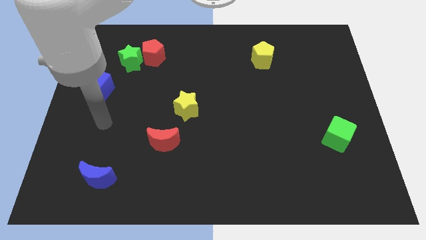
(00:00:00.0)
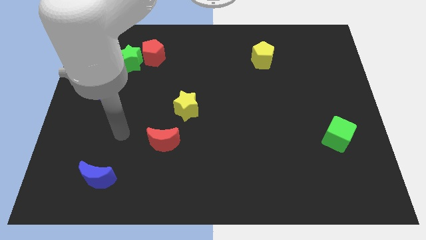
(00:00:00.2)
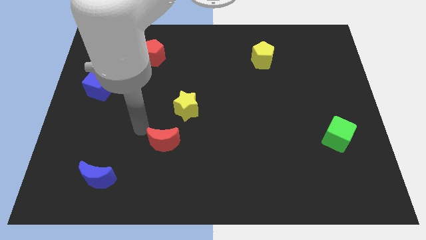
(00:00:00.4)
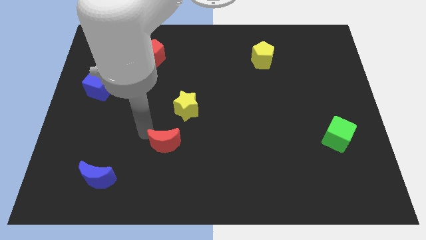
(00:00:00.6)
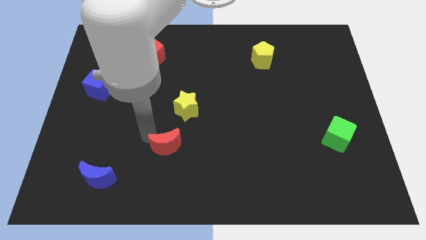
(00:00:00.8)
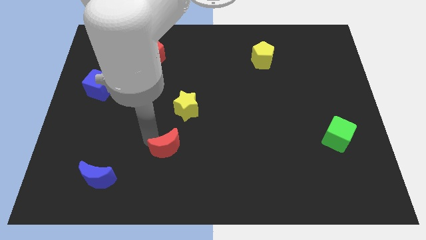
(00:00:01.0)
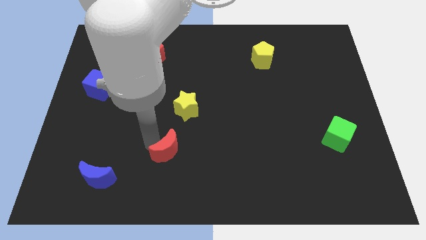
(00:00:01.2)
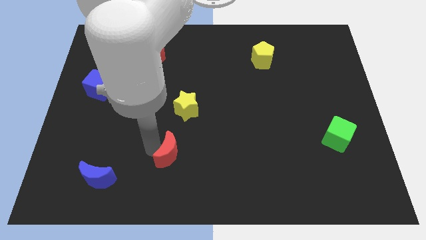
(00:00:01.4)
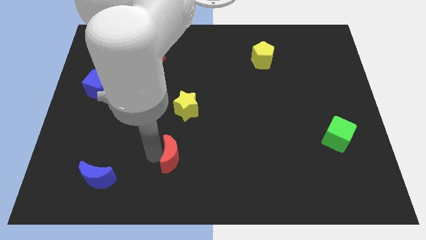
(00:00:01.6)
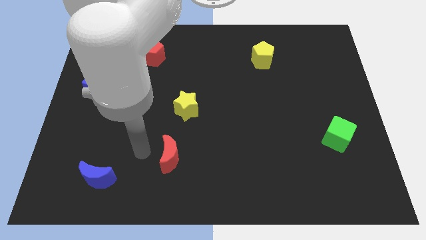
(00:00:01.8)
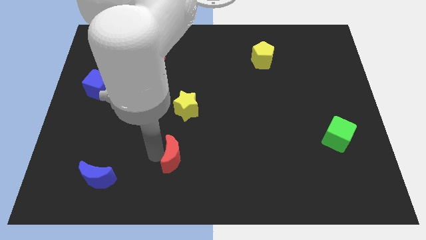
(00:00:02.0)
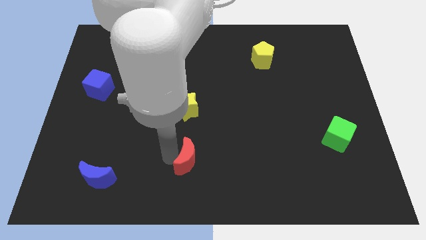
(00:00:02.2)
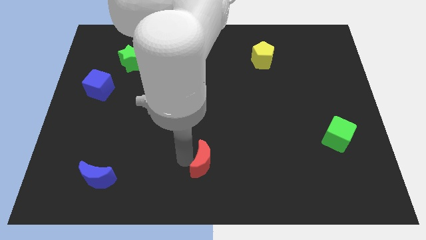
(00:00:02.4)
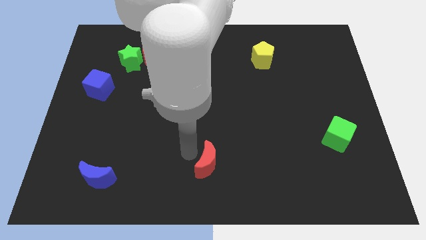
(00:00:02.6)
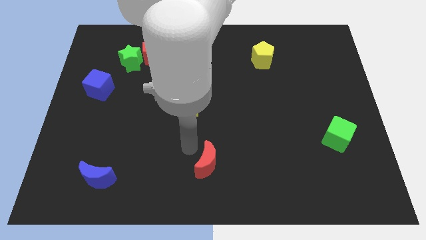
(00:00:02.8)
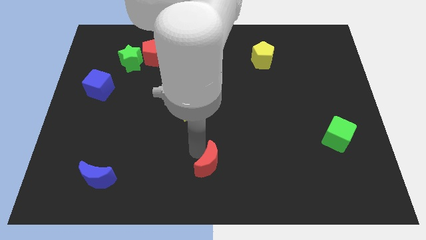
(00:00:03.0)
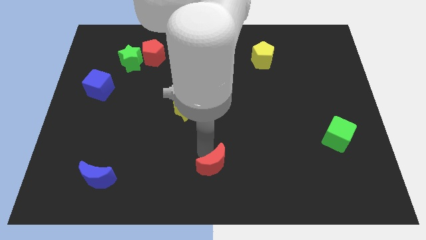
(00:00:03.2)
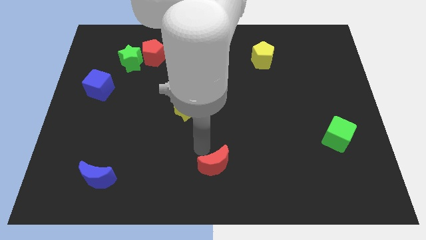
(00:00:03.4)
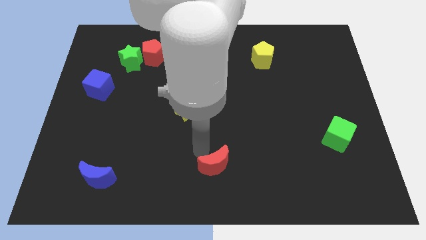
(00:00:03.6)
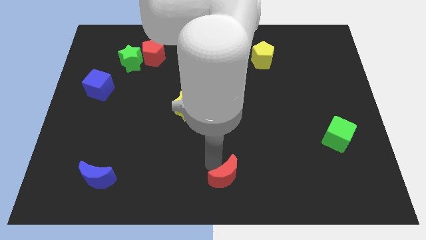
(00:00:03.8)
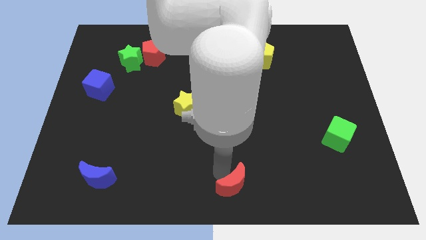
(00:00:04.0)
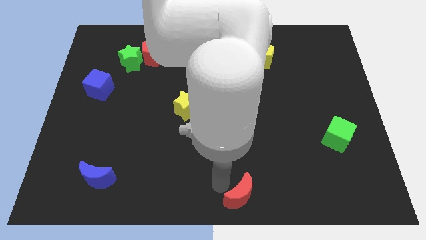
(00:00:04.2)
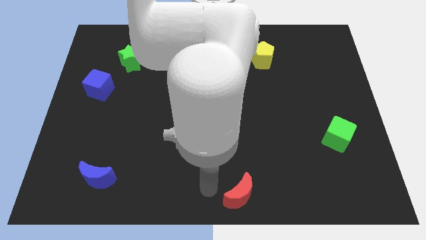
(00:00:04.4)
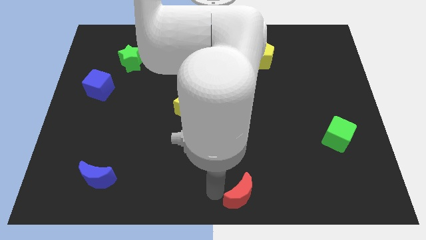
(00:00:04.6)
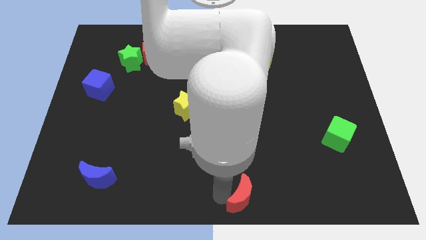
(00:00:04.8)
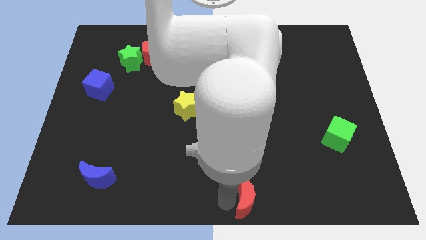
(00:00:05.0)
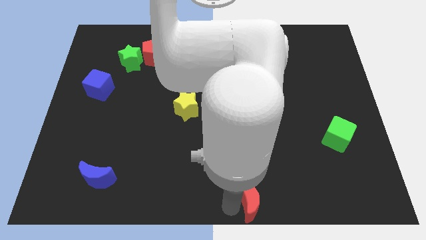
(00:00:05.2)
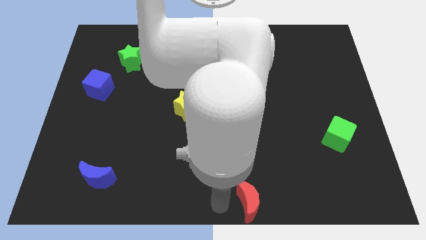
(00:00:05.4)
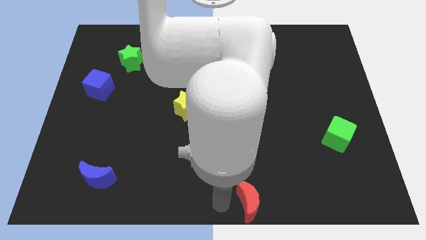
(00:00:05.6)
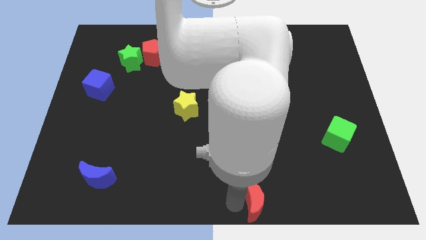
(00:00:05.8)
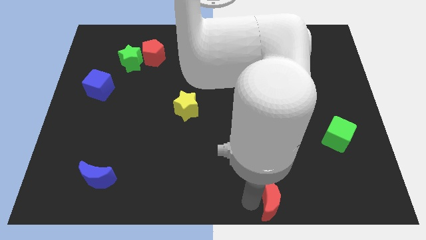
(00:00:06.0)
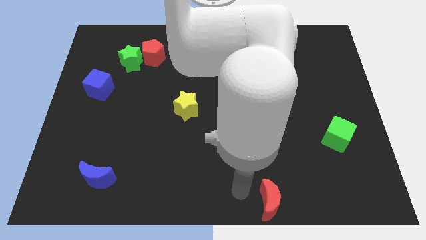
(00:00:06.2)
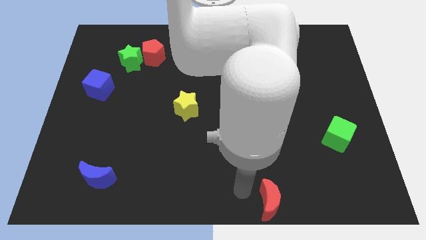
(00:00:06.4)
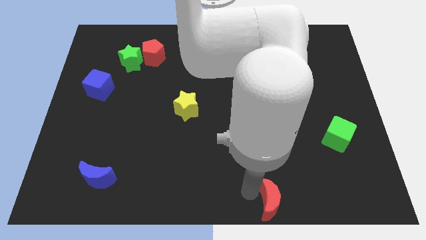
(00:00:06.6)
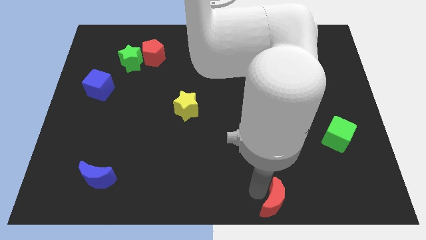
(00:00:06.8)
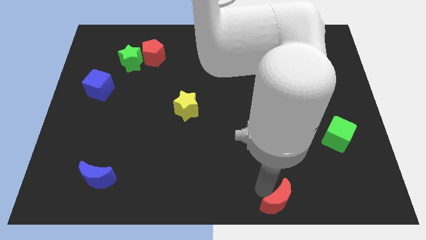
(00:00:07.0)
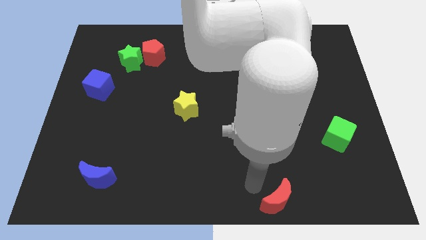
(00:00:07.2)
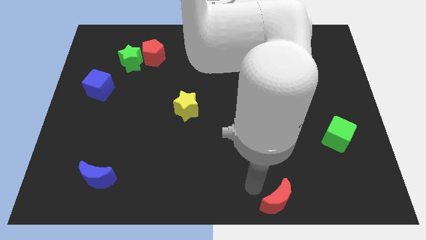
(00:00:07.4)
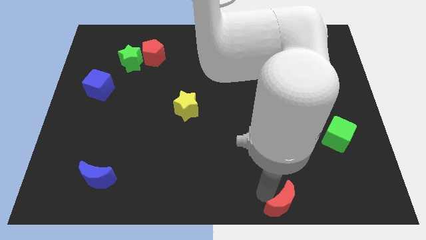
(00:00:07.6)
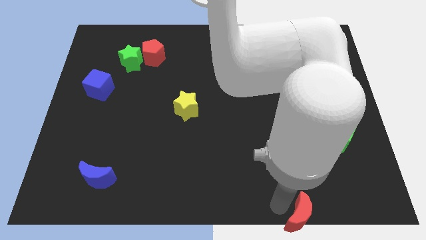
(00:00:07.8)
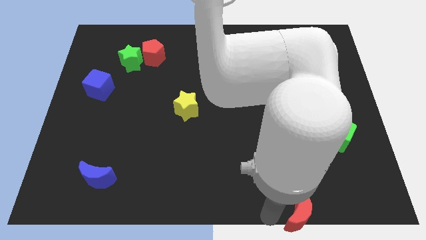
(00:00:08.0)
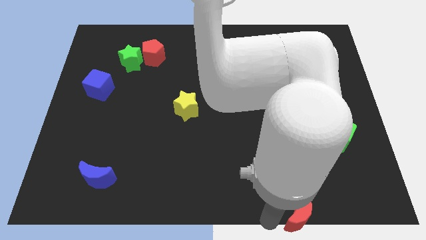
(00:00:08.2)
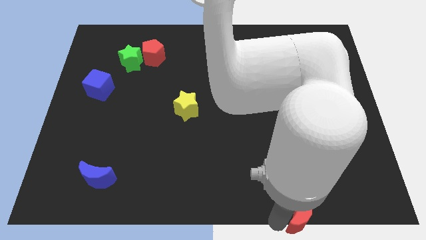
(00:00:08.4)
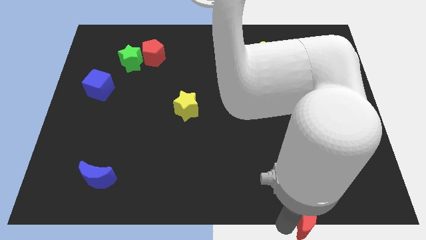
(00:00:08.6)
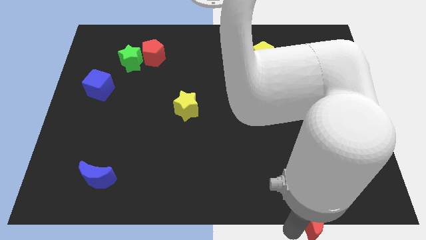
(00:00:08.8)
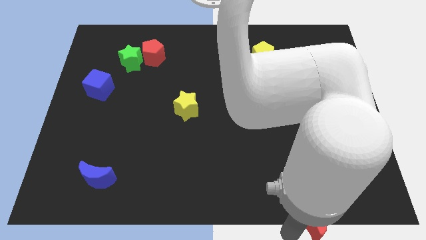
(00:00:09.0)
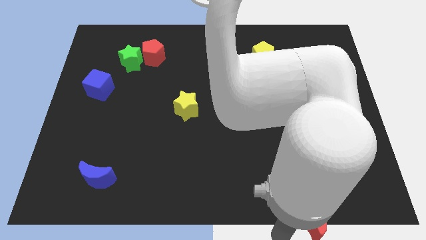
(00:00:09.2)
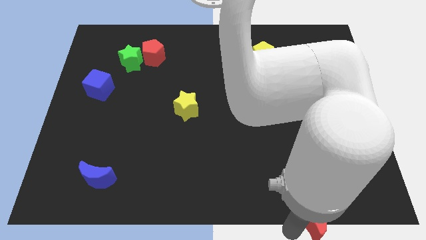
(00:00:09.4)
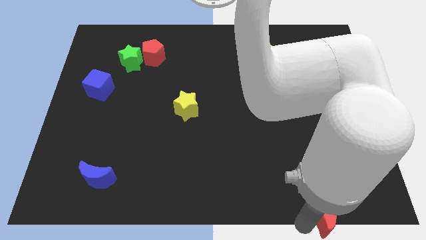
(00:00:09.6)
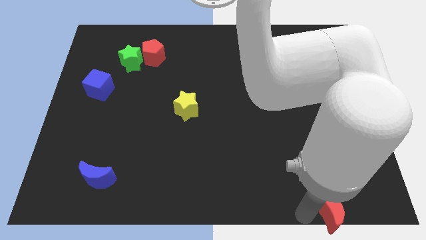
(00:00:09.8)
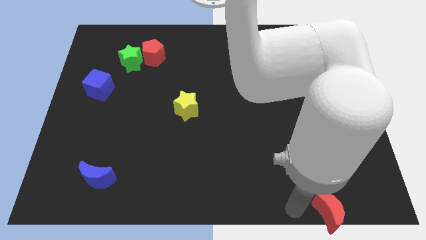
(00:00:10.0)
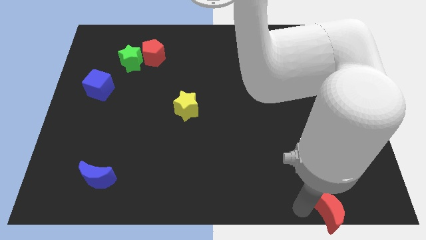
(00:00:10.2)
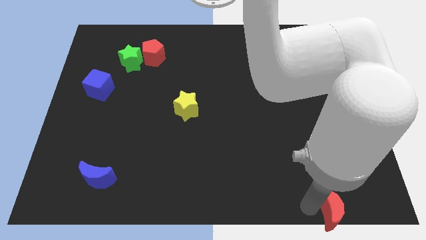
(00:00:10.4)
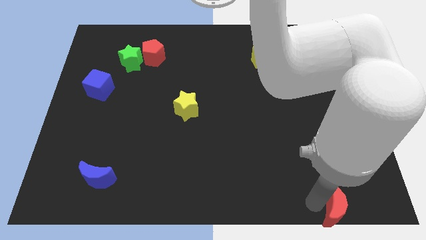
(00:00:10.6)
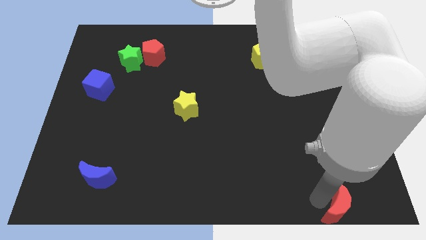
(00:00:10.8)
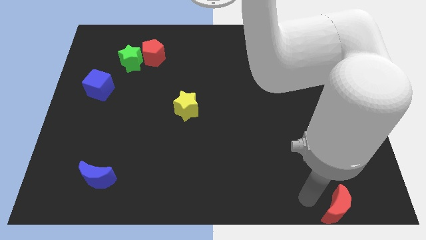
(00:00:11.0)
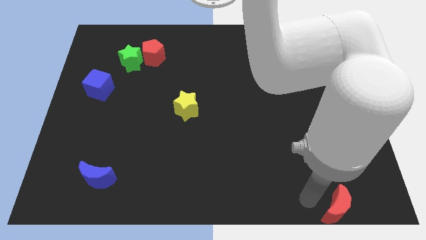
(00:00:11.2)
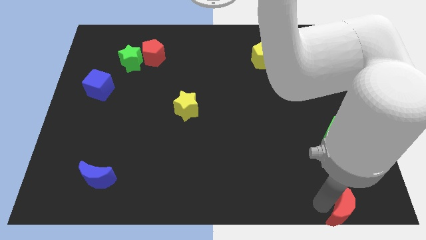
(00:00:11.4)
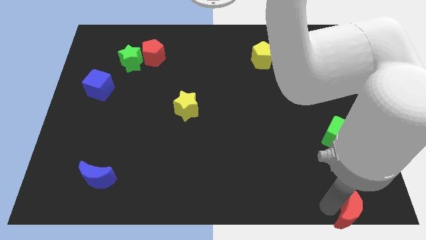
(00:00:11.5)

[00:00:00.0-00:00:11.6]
slide the red moon to the bottom right
